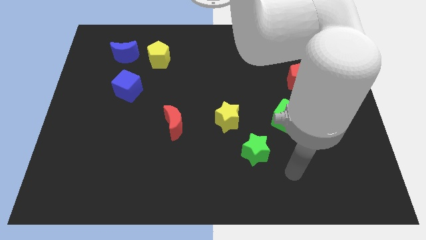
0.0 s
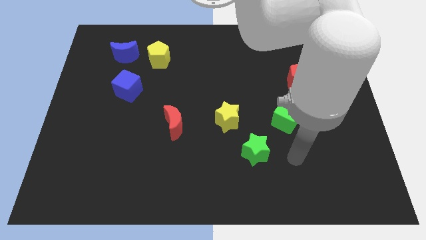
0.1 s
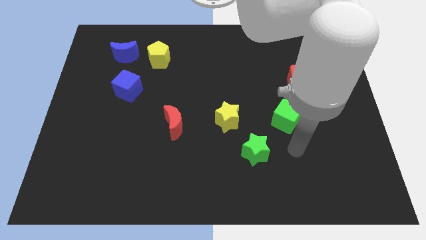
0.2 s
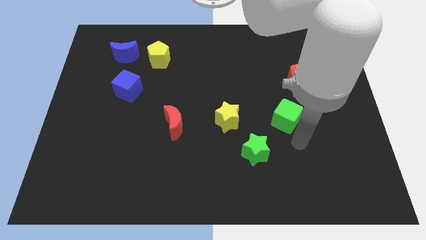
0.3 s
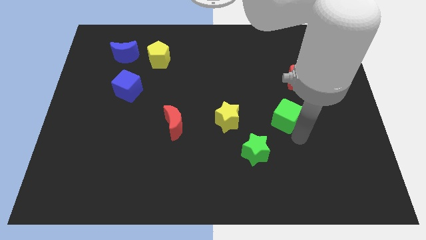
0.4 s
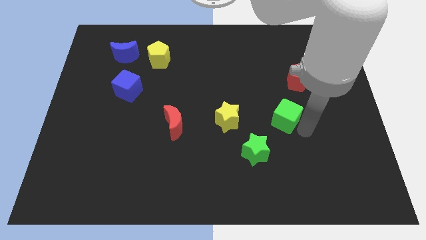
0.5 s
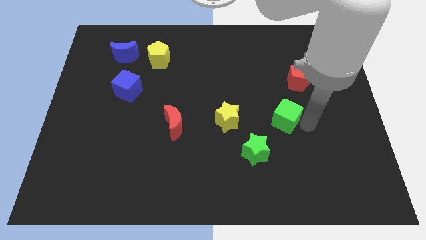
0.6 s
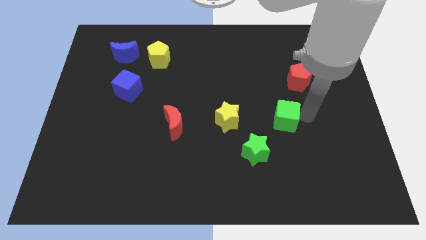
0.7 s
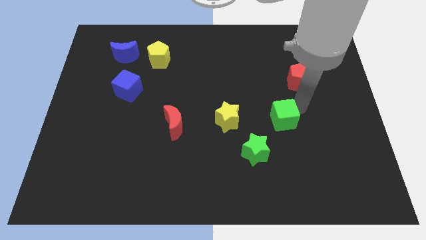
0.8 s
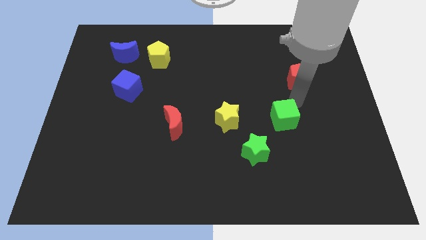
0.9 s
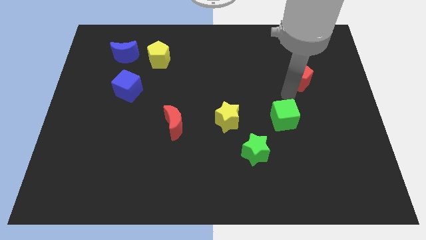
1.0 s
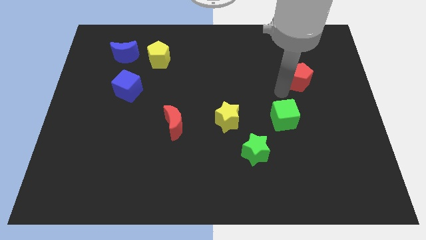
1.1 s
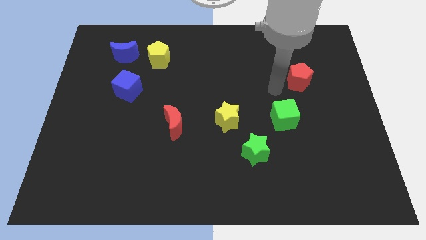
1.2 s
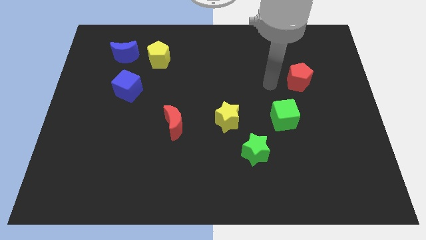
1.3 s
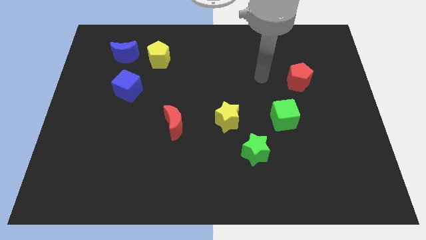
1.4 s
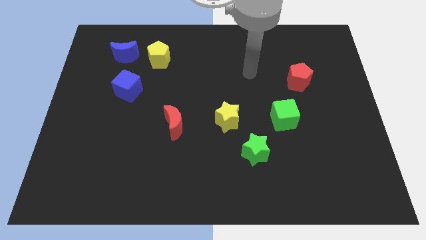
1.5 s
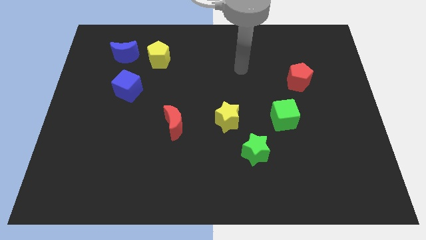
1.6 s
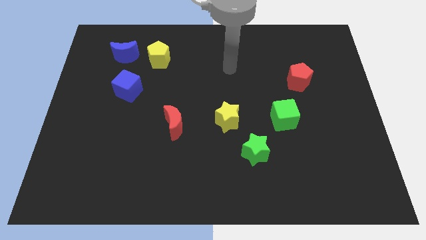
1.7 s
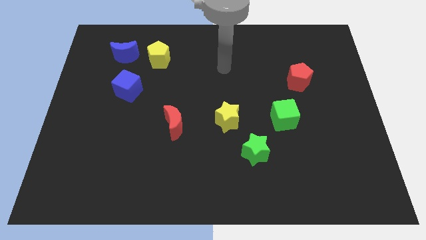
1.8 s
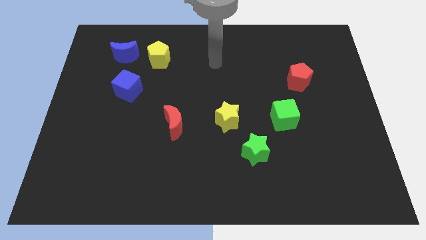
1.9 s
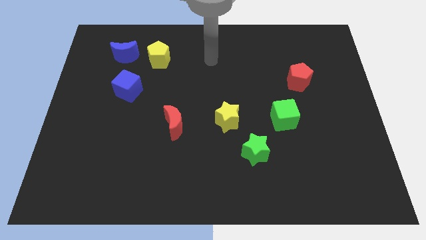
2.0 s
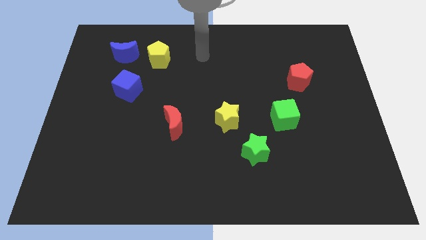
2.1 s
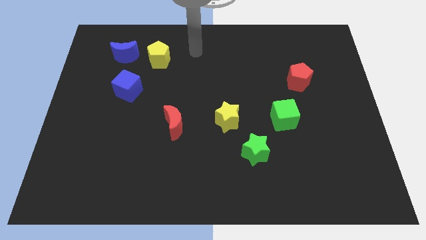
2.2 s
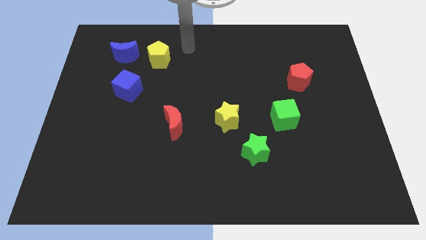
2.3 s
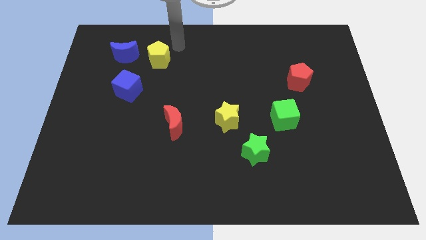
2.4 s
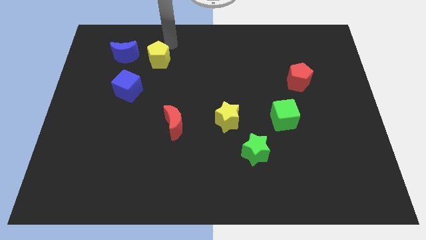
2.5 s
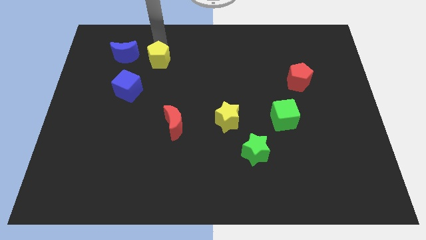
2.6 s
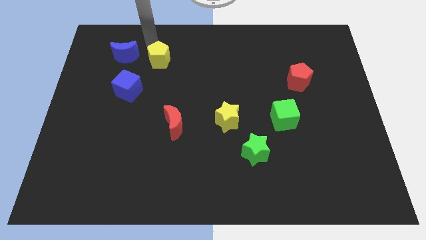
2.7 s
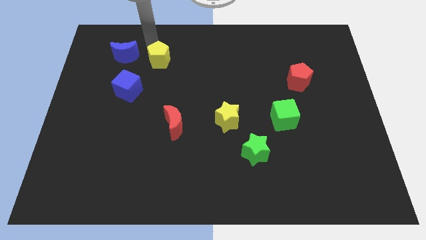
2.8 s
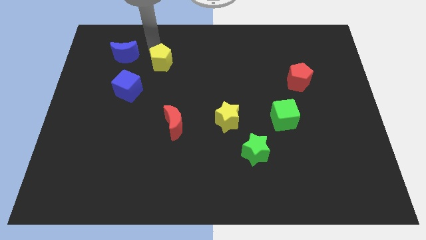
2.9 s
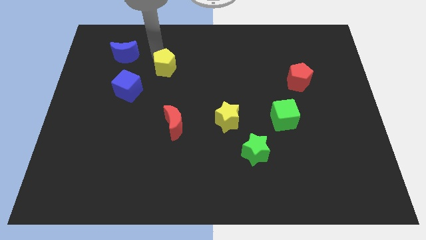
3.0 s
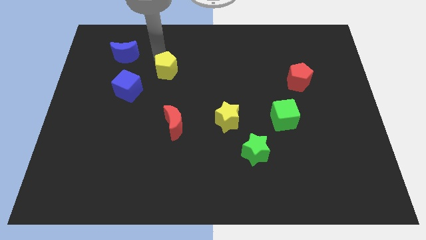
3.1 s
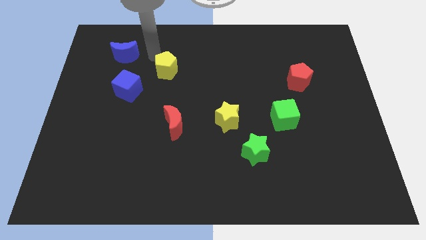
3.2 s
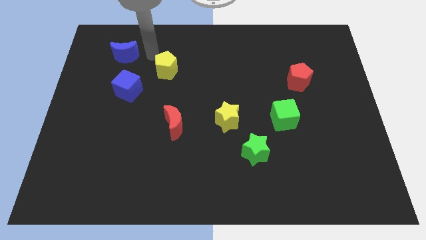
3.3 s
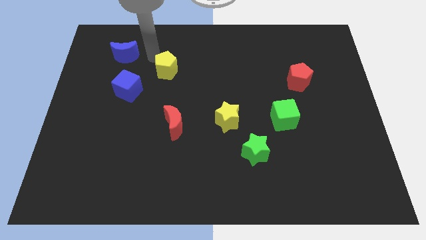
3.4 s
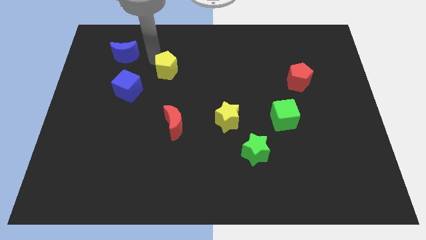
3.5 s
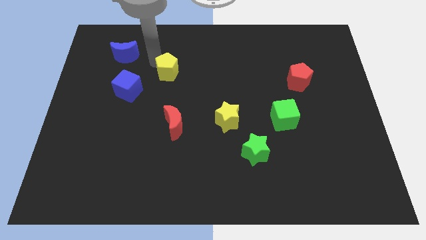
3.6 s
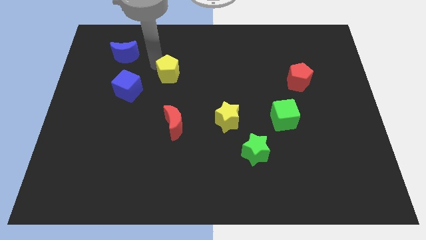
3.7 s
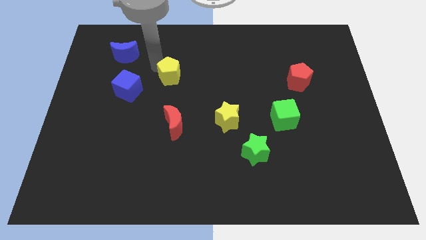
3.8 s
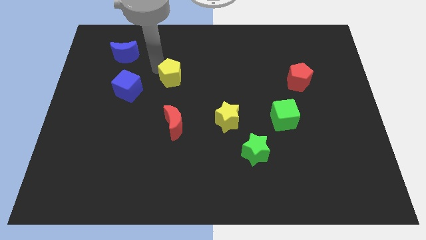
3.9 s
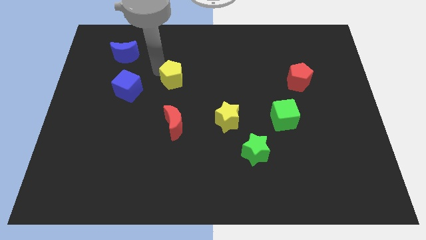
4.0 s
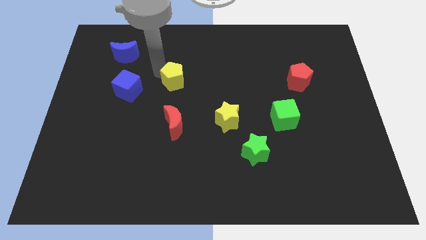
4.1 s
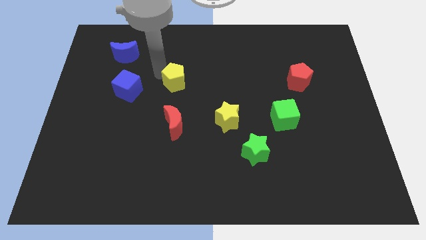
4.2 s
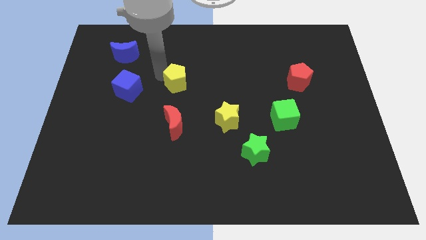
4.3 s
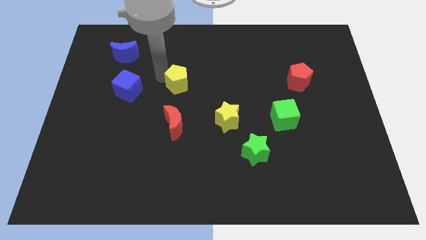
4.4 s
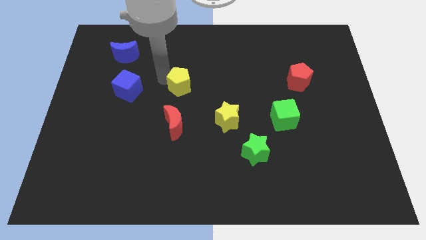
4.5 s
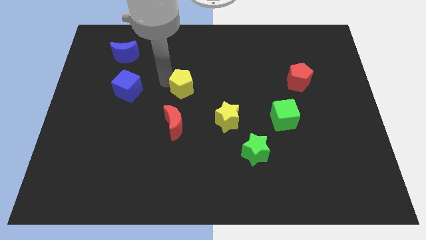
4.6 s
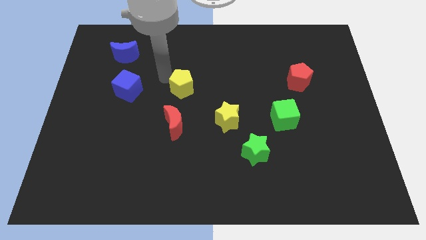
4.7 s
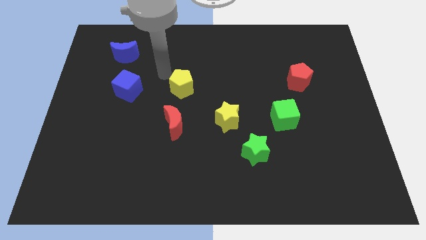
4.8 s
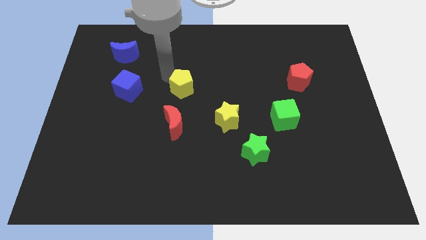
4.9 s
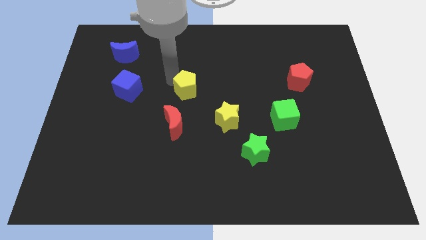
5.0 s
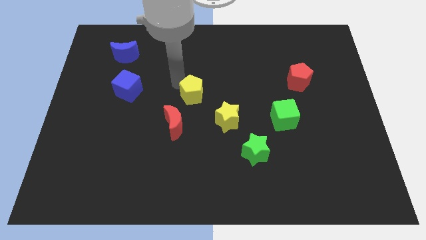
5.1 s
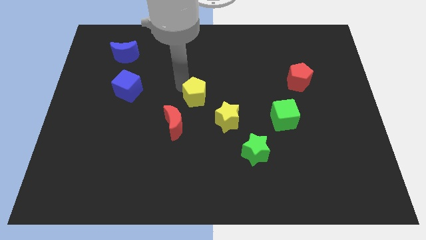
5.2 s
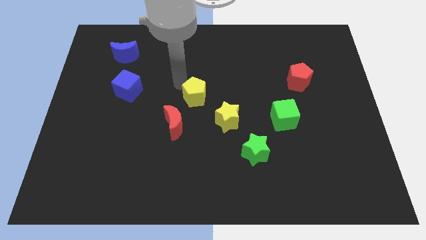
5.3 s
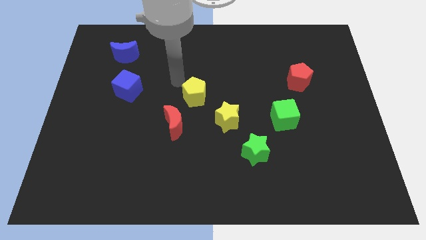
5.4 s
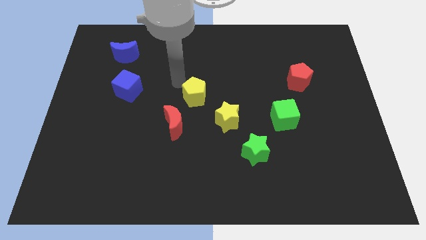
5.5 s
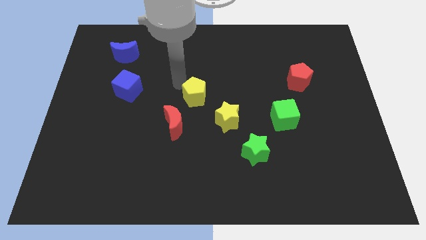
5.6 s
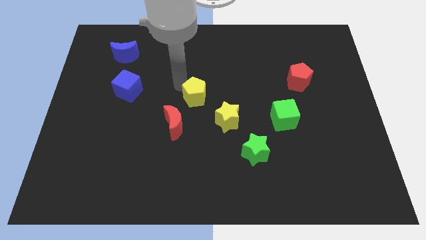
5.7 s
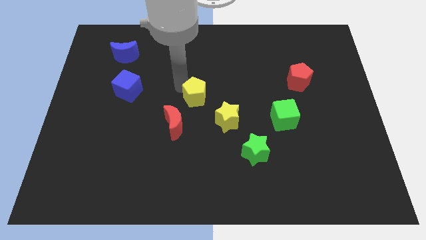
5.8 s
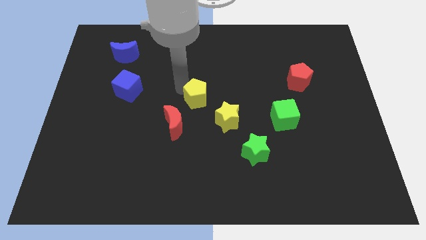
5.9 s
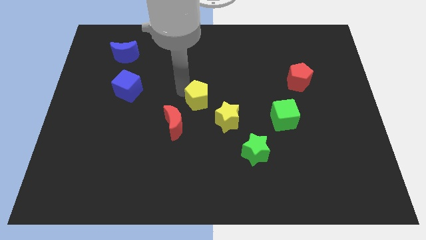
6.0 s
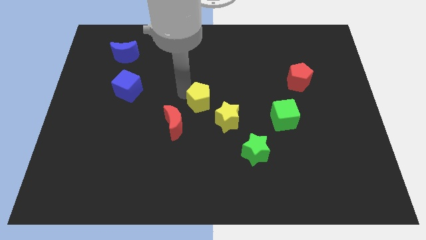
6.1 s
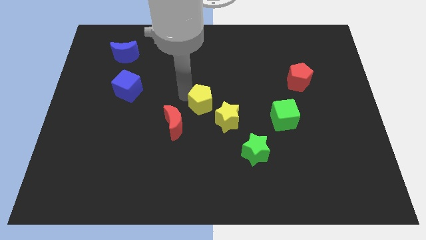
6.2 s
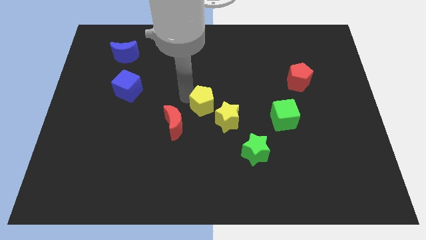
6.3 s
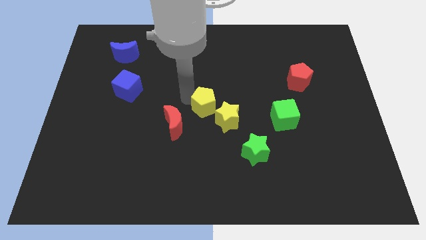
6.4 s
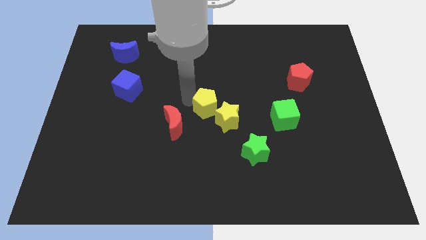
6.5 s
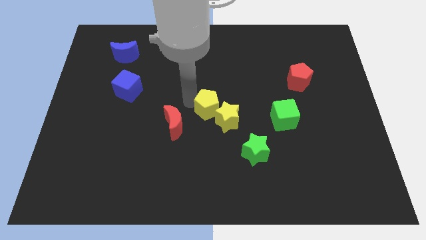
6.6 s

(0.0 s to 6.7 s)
move the yellow pentagon to the yellow star
